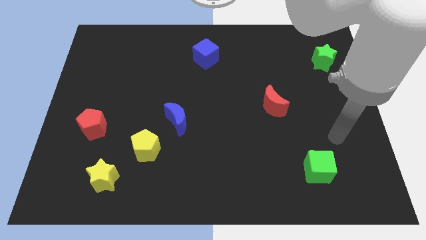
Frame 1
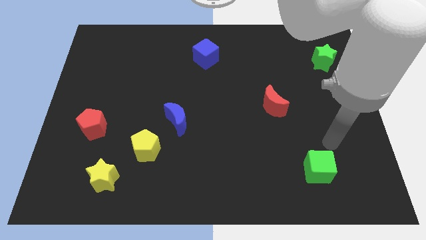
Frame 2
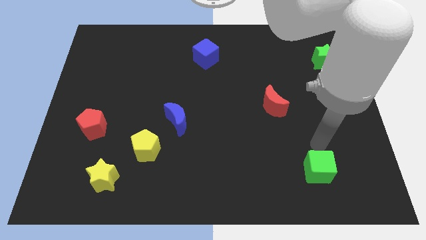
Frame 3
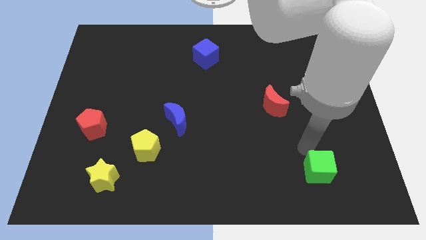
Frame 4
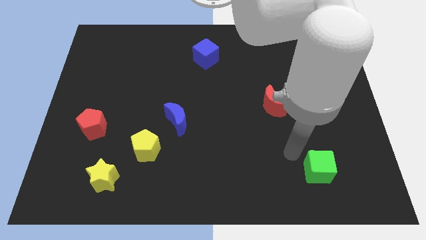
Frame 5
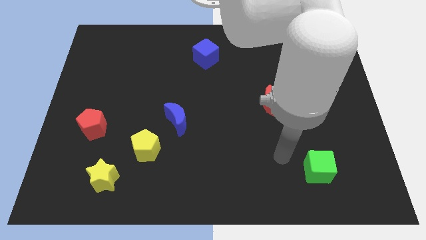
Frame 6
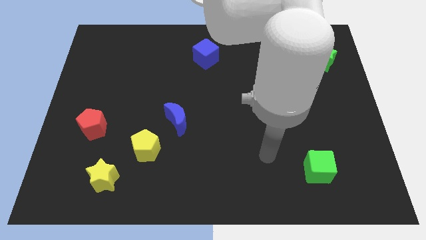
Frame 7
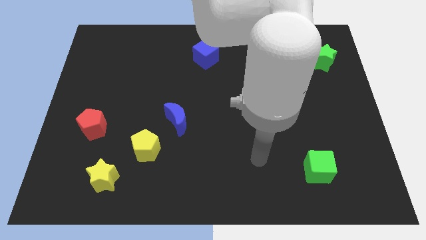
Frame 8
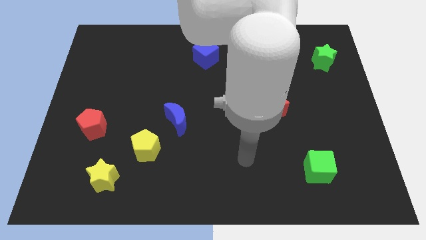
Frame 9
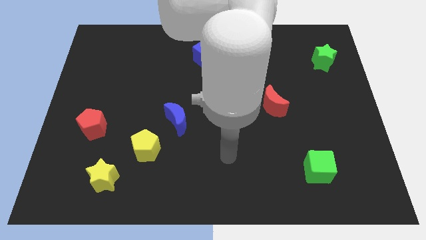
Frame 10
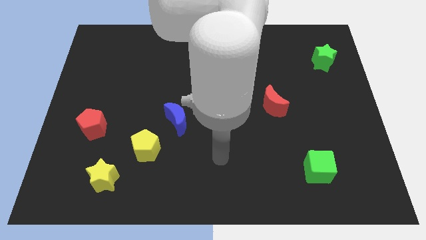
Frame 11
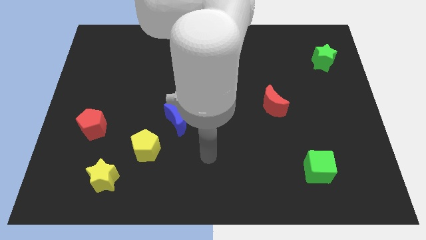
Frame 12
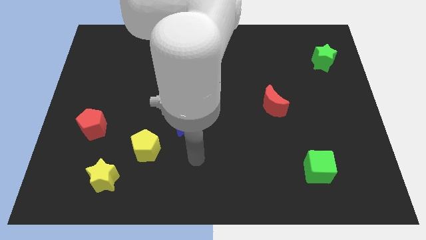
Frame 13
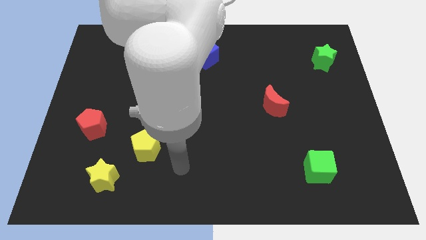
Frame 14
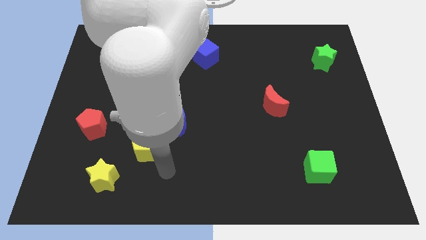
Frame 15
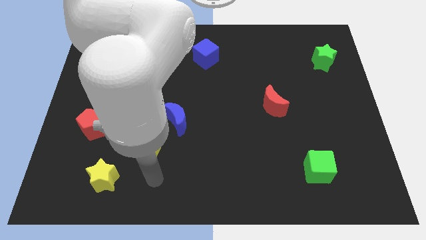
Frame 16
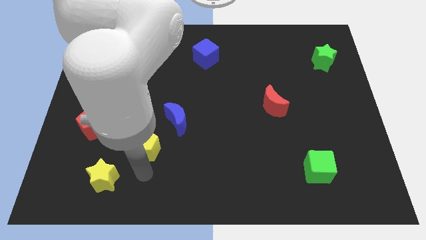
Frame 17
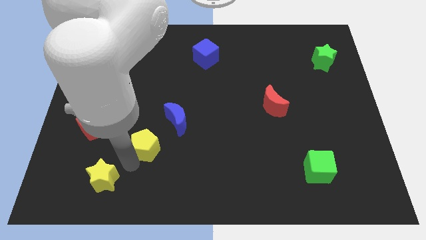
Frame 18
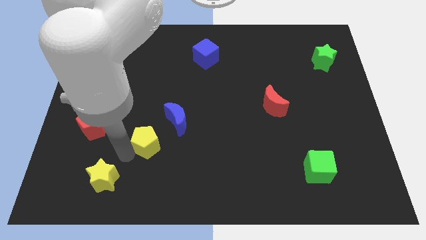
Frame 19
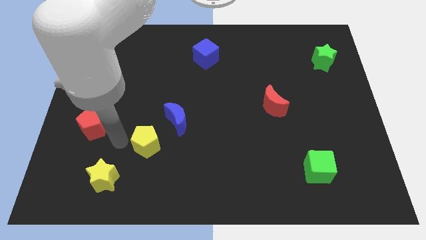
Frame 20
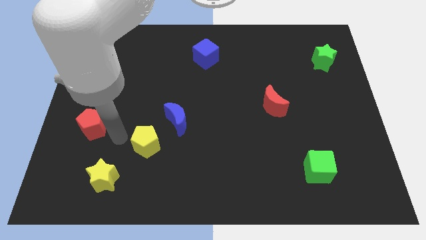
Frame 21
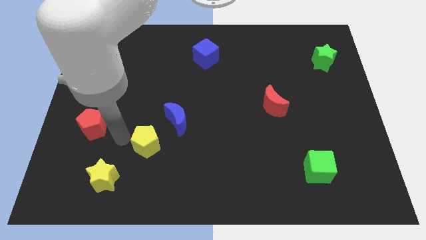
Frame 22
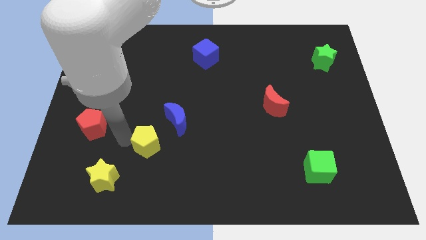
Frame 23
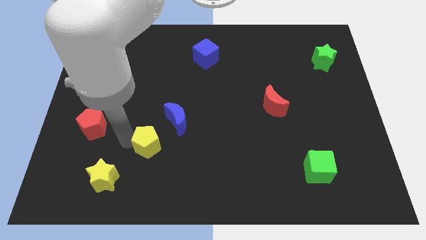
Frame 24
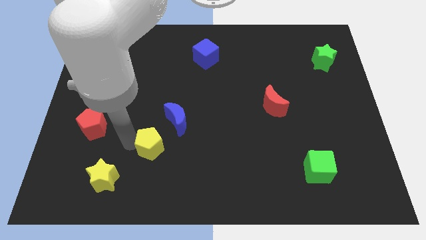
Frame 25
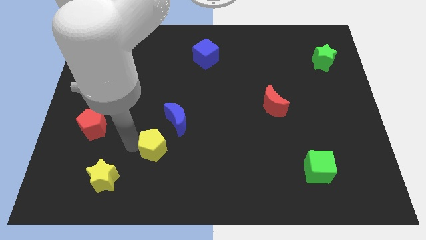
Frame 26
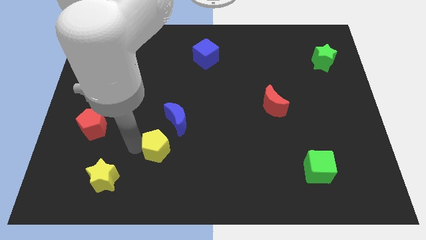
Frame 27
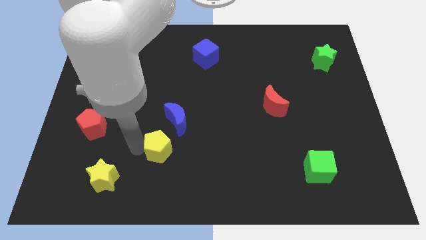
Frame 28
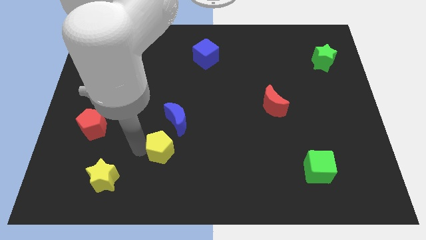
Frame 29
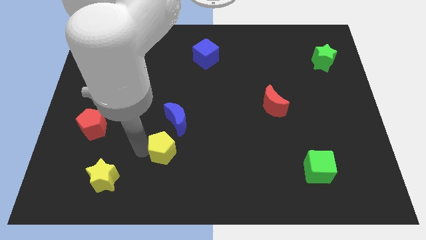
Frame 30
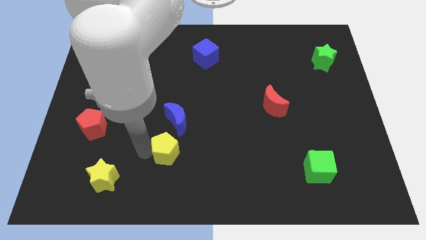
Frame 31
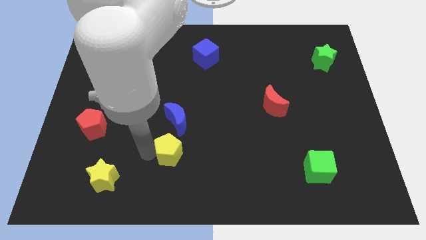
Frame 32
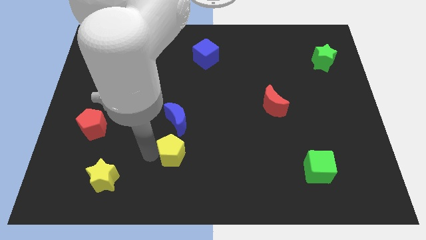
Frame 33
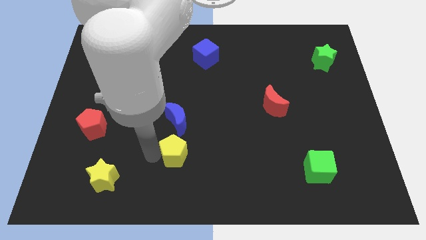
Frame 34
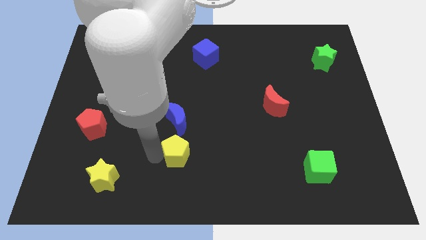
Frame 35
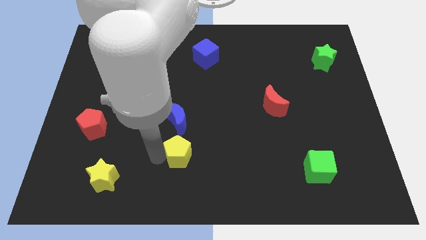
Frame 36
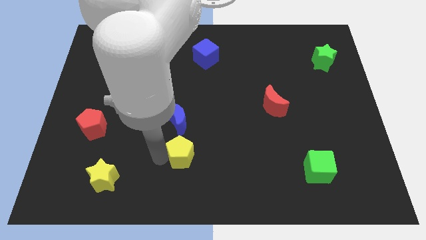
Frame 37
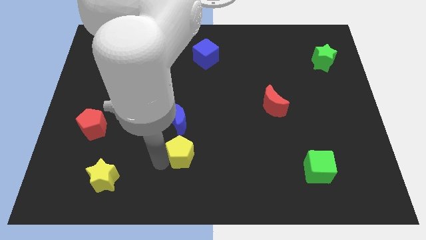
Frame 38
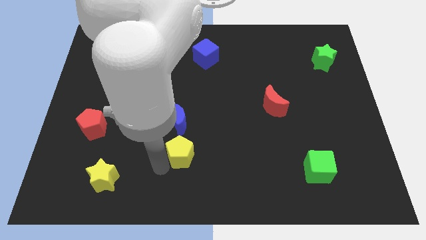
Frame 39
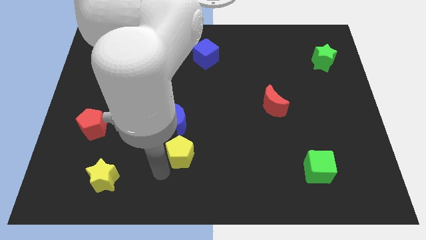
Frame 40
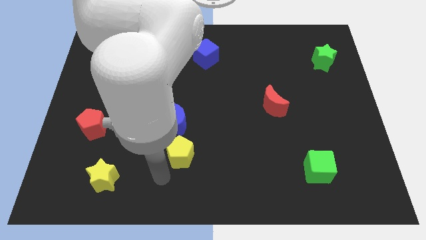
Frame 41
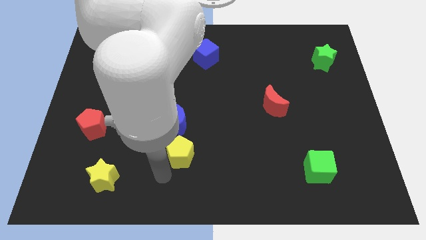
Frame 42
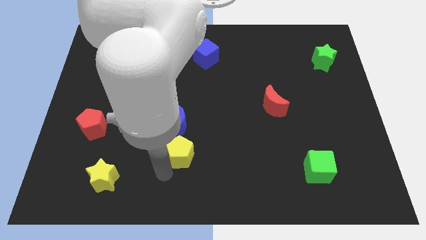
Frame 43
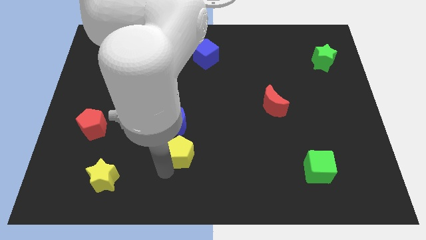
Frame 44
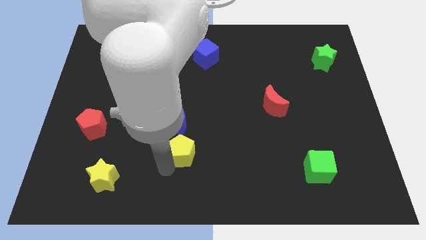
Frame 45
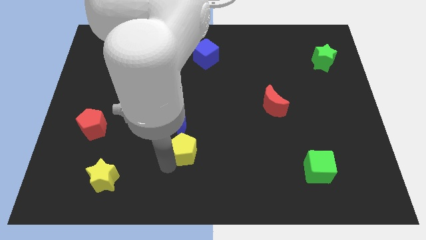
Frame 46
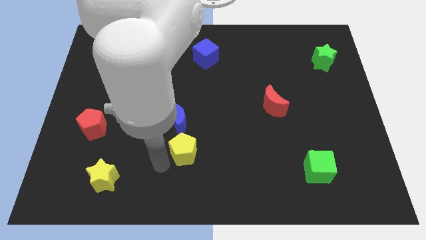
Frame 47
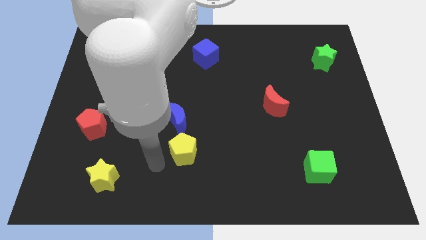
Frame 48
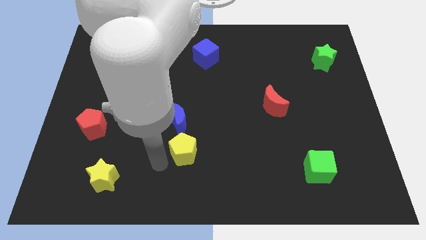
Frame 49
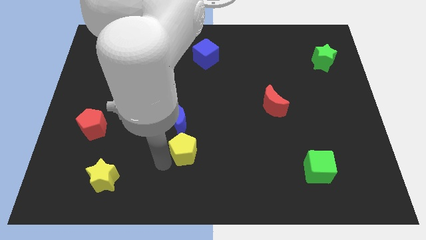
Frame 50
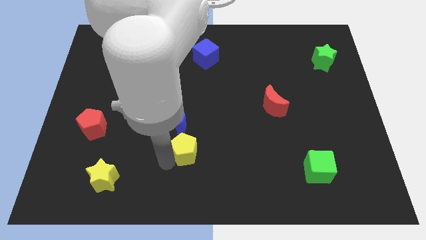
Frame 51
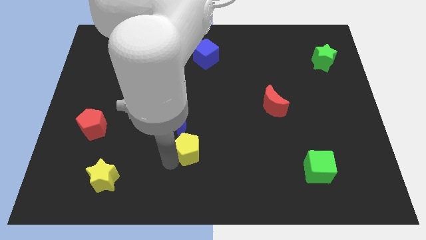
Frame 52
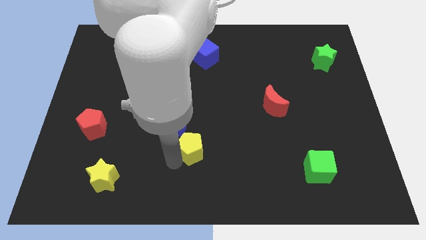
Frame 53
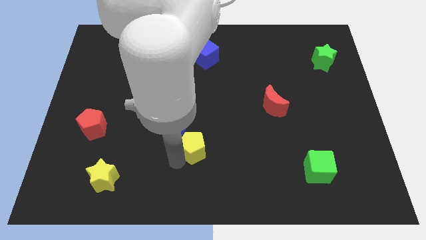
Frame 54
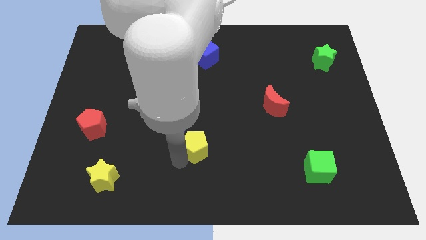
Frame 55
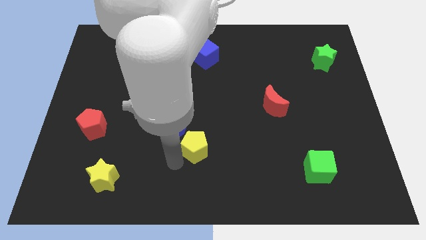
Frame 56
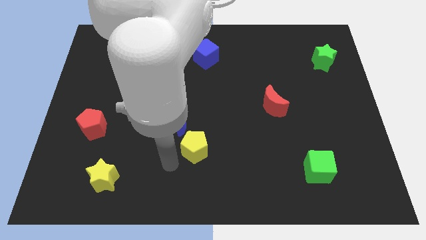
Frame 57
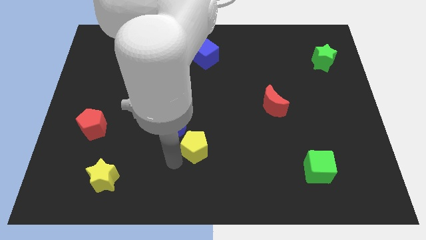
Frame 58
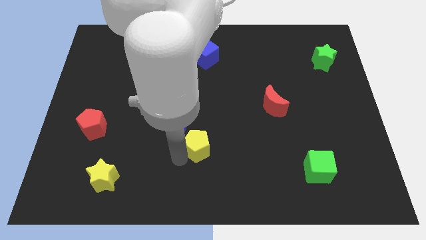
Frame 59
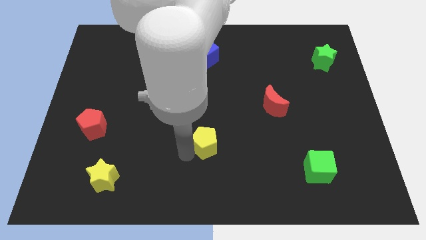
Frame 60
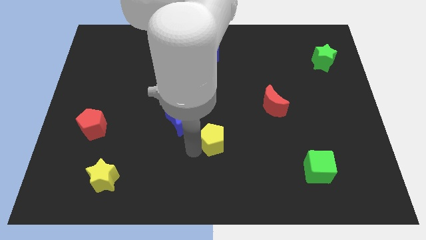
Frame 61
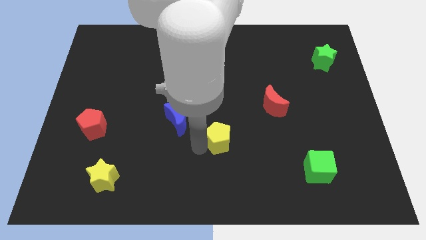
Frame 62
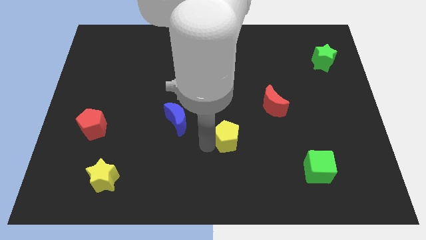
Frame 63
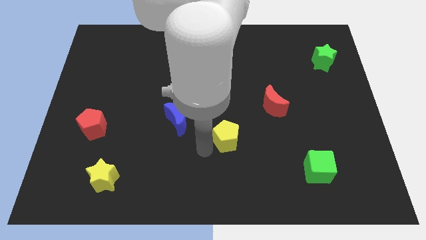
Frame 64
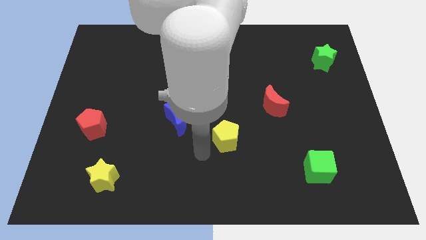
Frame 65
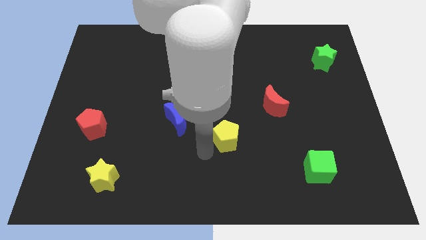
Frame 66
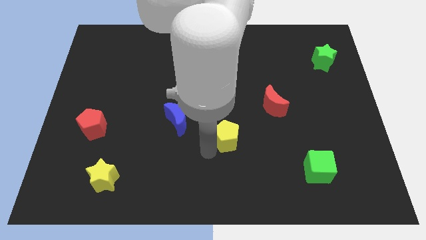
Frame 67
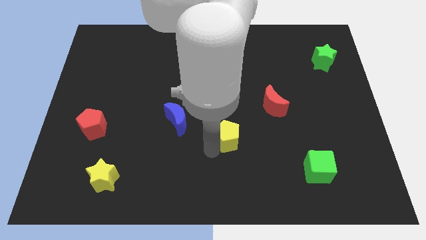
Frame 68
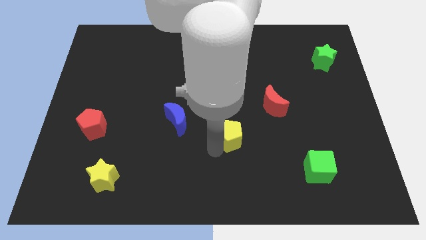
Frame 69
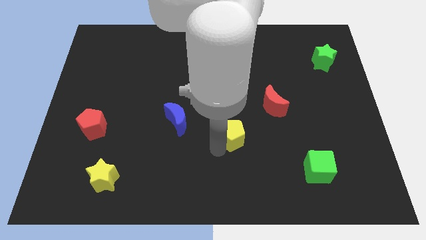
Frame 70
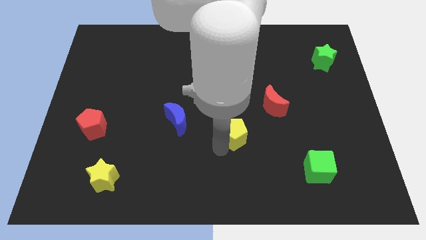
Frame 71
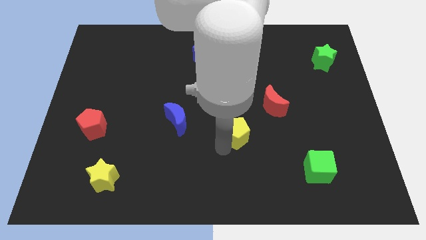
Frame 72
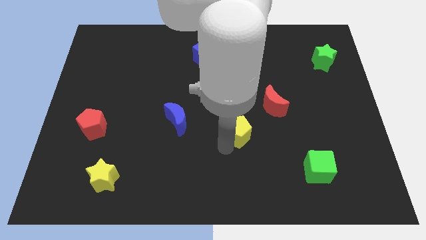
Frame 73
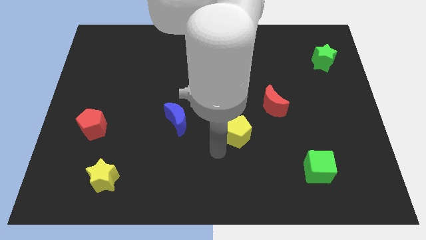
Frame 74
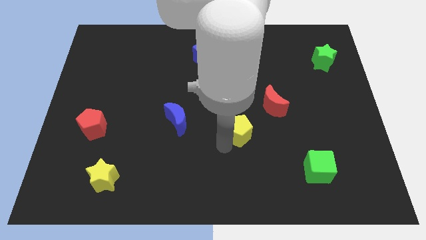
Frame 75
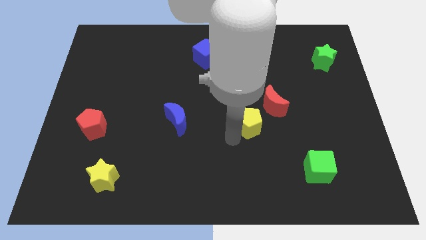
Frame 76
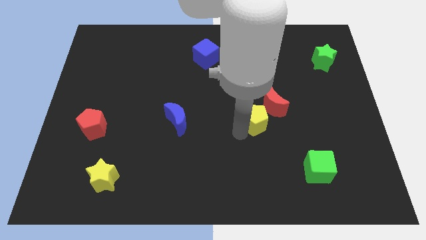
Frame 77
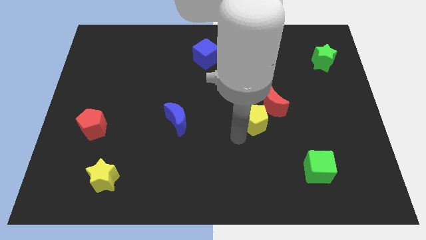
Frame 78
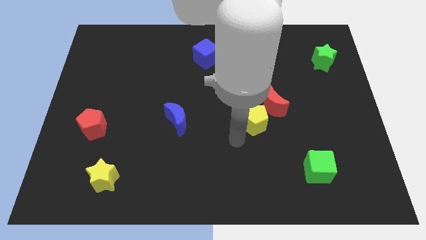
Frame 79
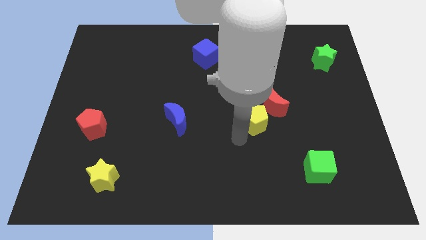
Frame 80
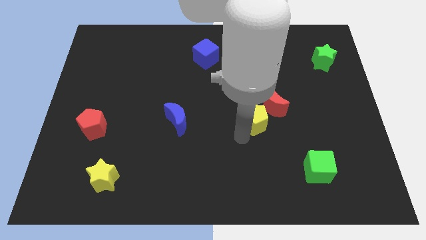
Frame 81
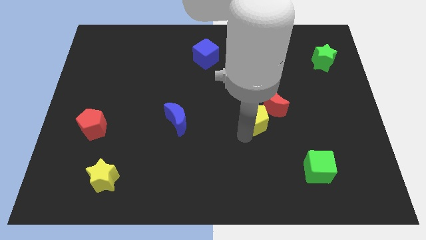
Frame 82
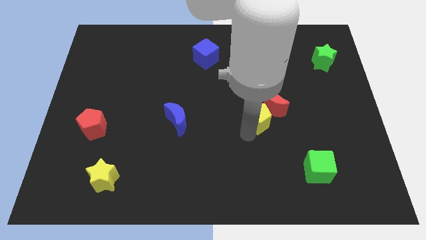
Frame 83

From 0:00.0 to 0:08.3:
move the yellow pentagon next to the red moon
